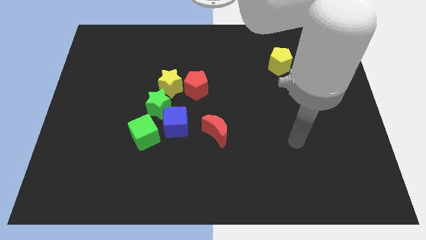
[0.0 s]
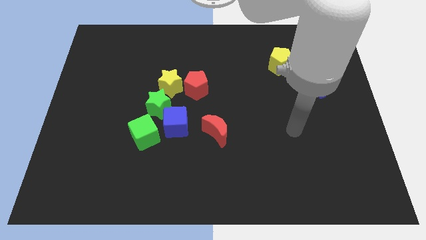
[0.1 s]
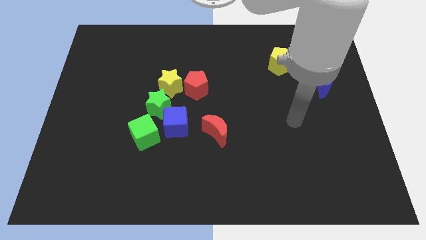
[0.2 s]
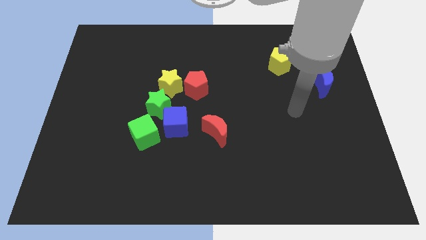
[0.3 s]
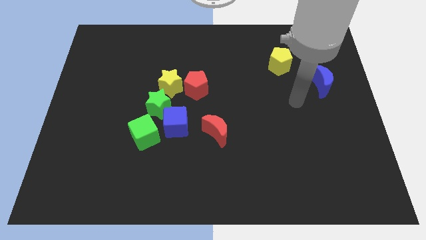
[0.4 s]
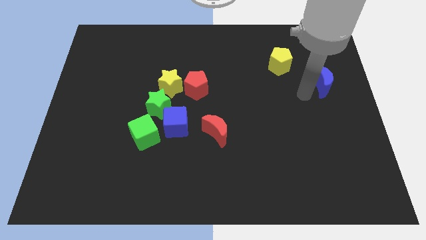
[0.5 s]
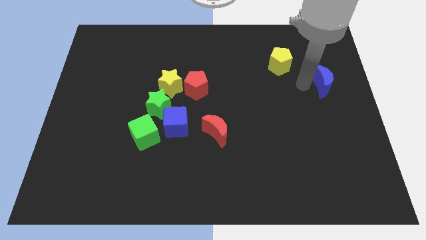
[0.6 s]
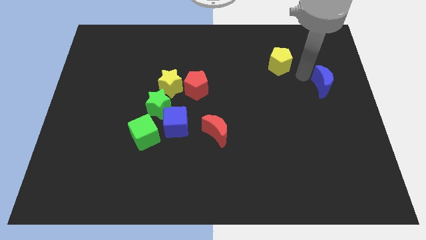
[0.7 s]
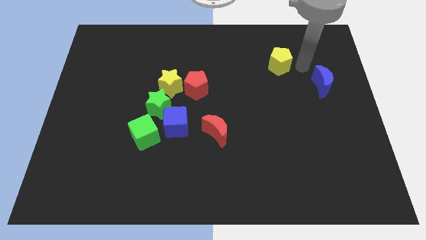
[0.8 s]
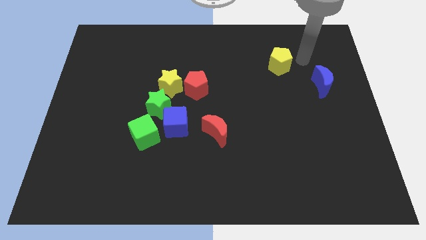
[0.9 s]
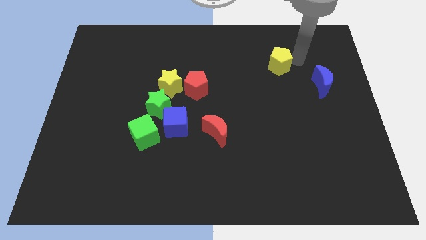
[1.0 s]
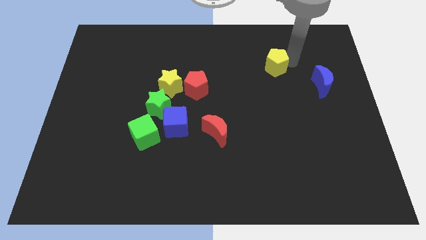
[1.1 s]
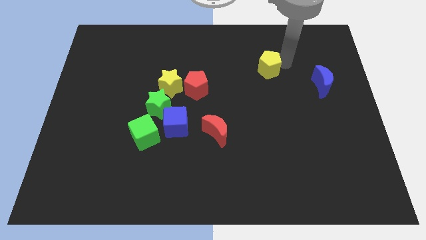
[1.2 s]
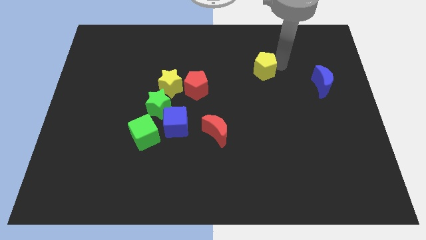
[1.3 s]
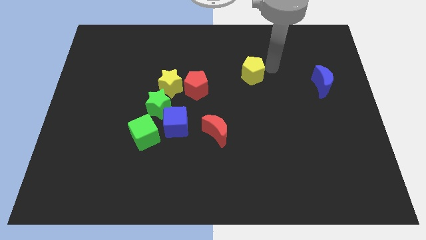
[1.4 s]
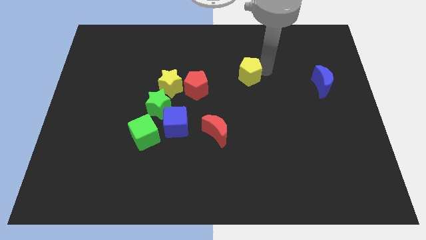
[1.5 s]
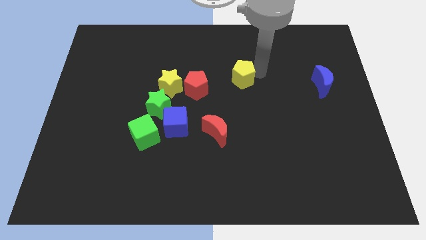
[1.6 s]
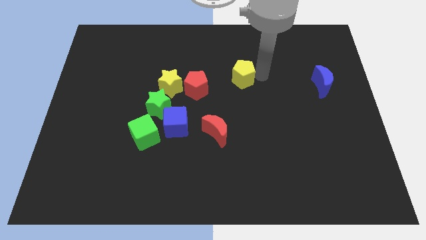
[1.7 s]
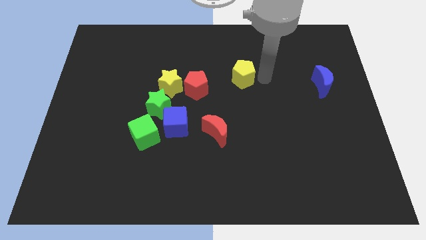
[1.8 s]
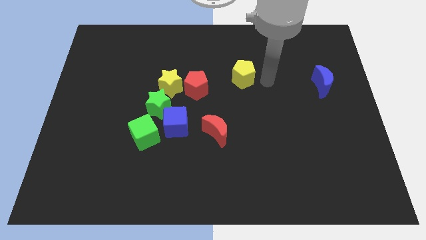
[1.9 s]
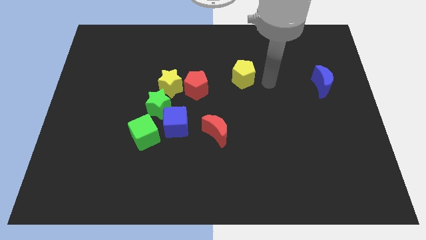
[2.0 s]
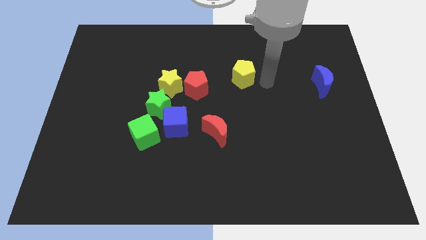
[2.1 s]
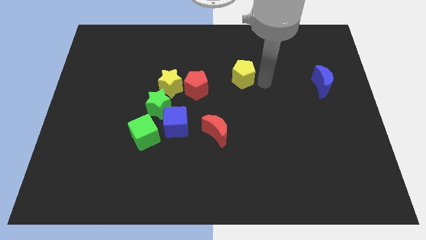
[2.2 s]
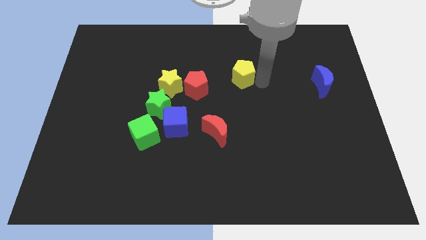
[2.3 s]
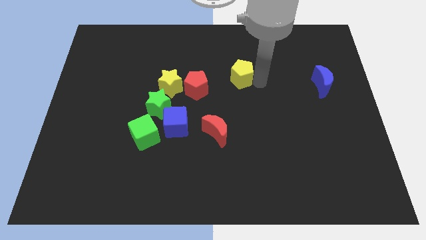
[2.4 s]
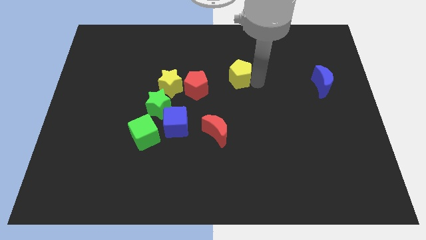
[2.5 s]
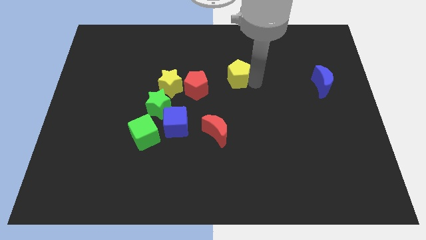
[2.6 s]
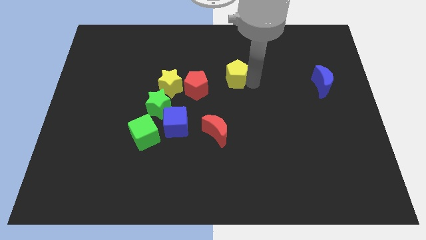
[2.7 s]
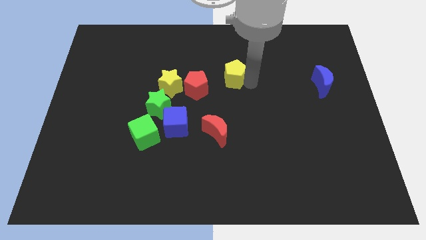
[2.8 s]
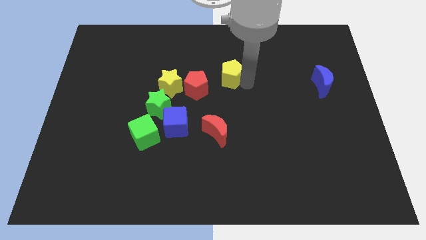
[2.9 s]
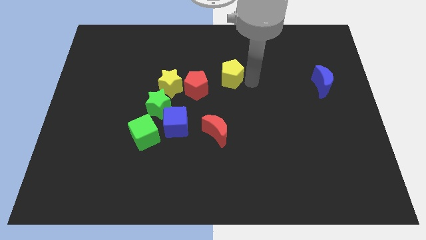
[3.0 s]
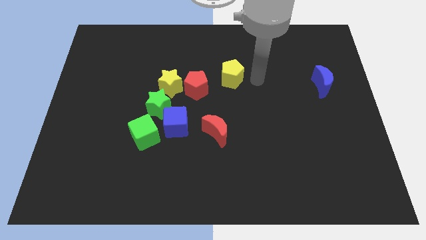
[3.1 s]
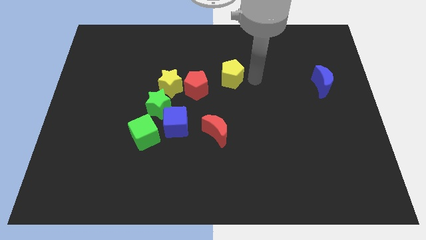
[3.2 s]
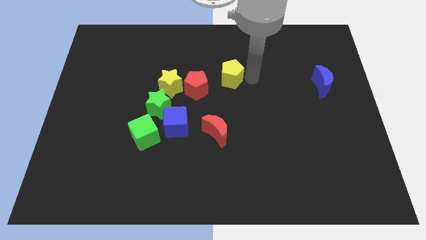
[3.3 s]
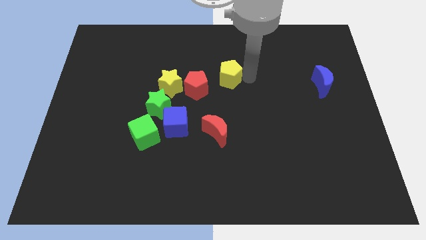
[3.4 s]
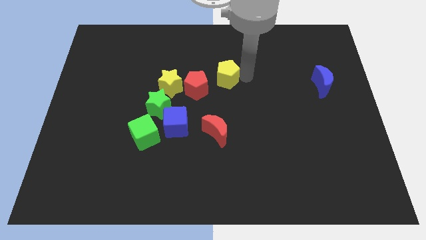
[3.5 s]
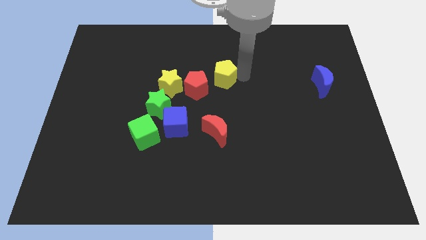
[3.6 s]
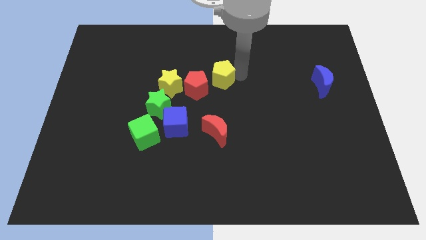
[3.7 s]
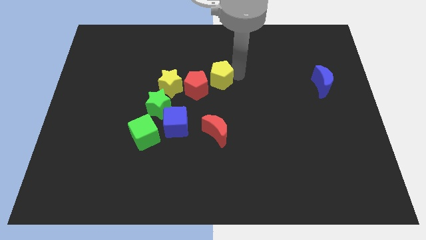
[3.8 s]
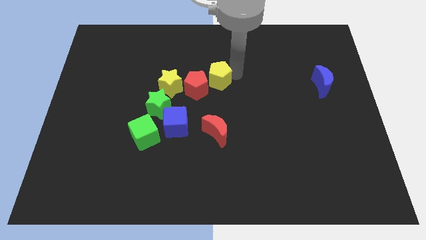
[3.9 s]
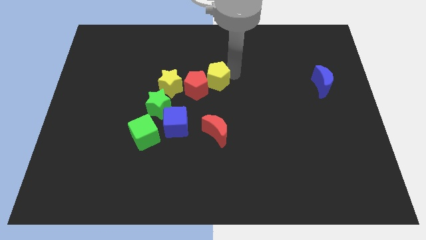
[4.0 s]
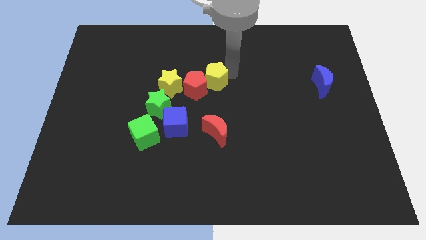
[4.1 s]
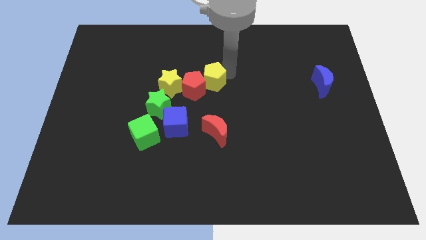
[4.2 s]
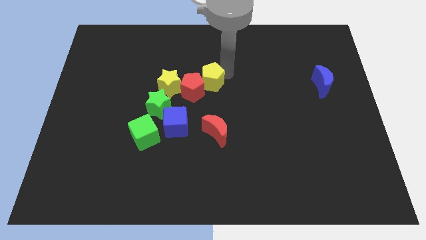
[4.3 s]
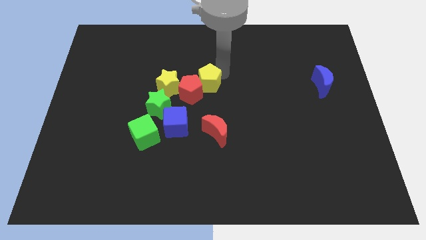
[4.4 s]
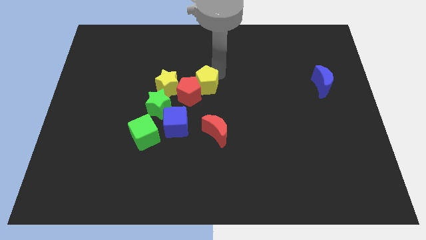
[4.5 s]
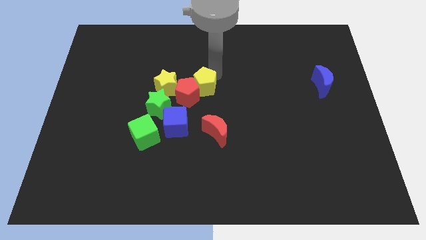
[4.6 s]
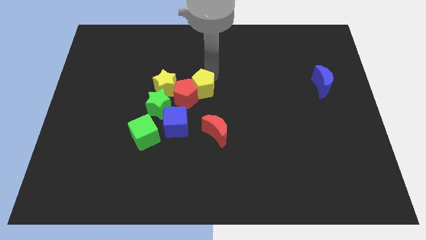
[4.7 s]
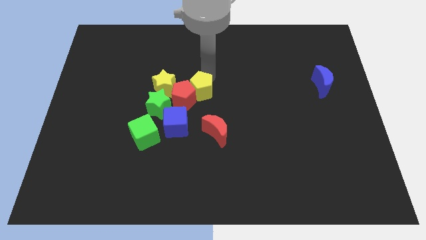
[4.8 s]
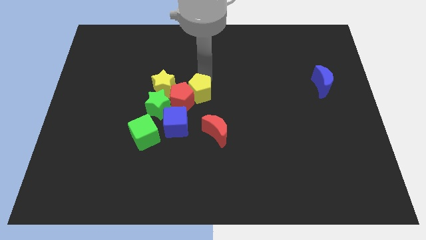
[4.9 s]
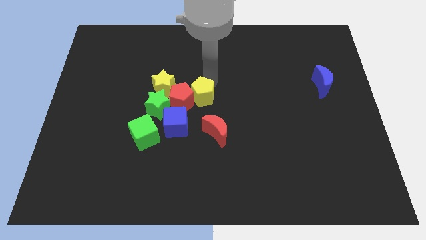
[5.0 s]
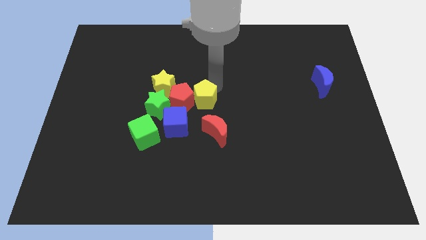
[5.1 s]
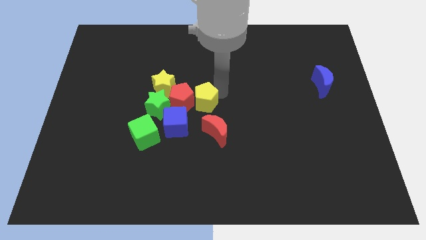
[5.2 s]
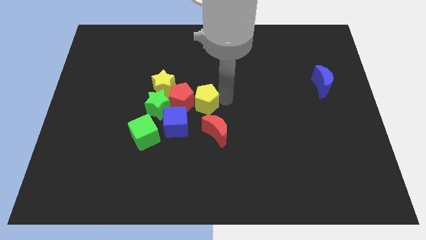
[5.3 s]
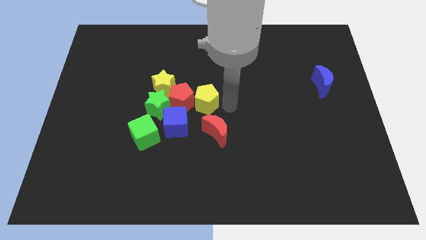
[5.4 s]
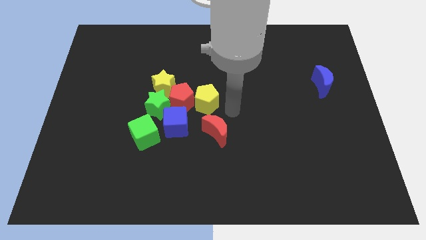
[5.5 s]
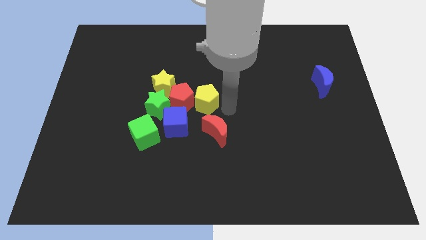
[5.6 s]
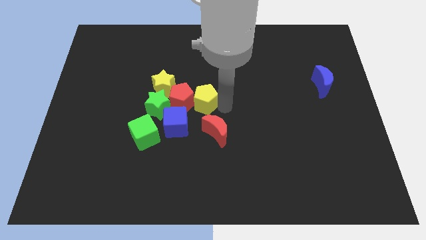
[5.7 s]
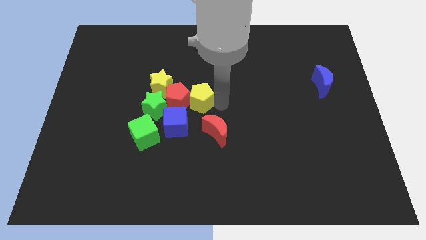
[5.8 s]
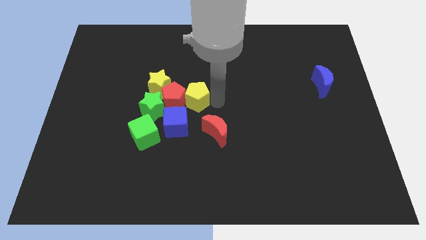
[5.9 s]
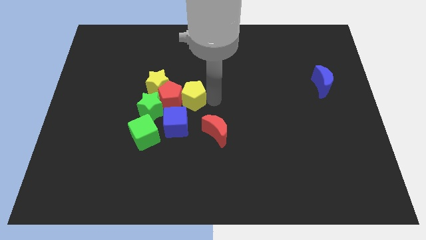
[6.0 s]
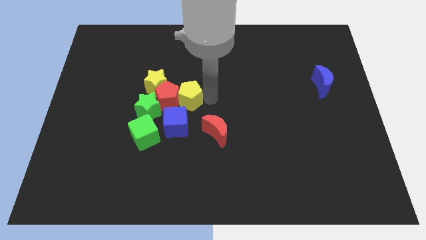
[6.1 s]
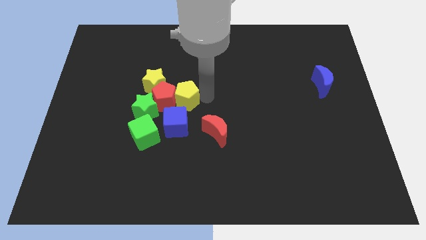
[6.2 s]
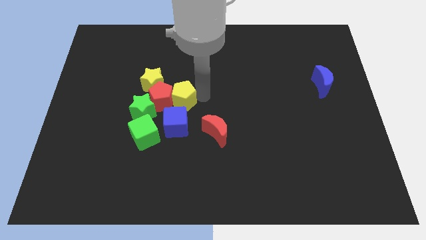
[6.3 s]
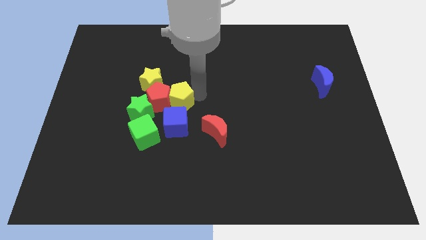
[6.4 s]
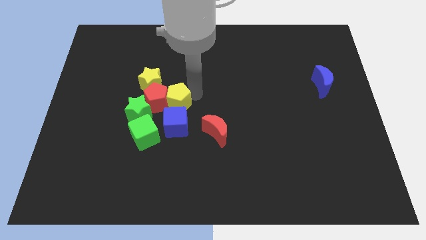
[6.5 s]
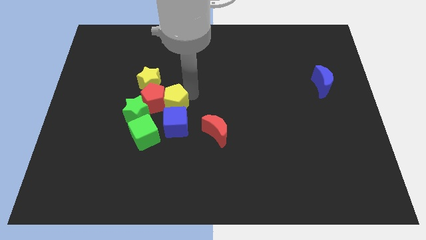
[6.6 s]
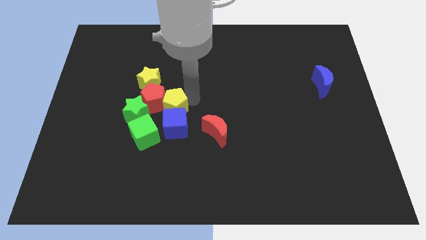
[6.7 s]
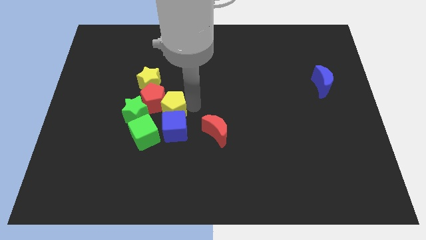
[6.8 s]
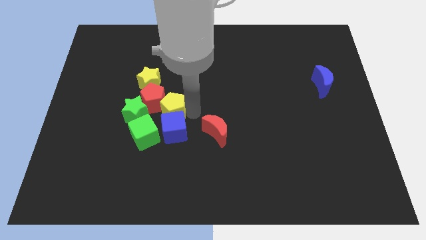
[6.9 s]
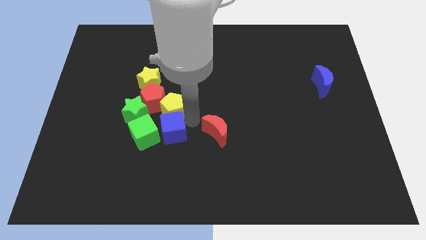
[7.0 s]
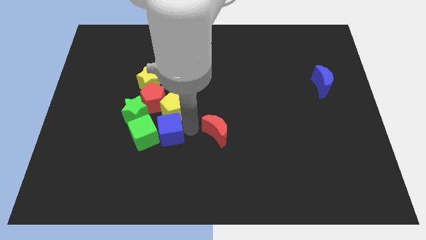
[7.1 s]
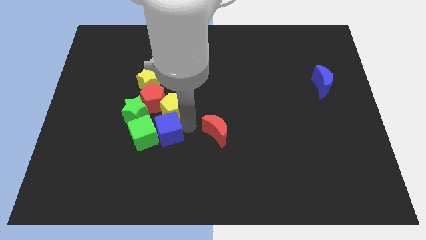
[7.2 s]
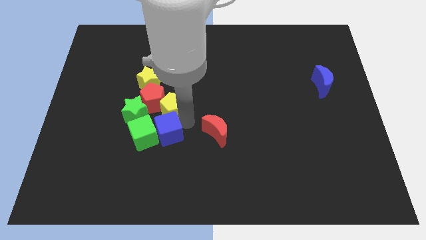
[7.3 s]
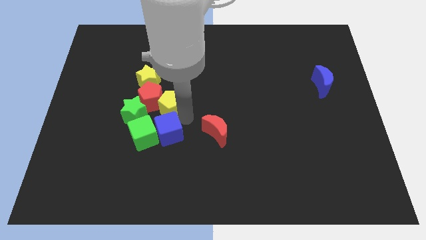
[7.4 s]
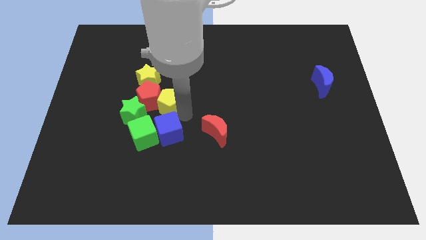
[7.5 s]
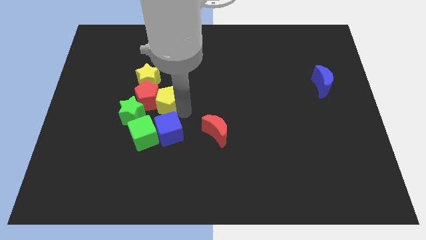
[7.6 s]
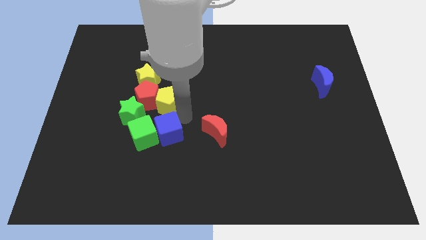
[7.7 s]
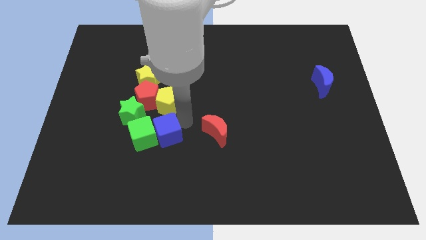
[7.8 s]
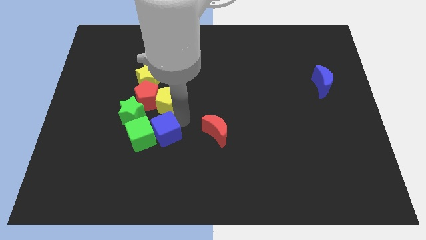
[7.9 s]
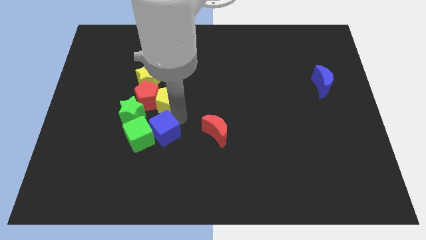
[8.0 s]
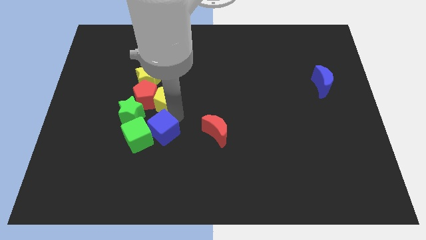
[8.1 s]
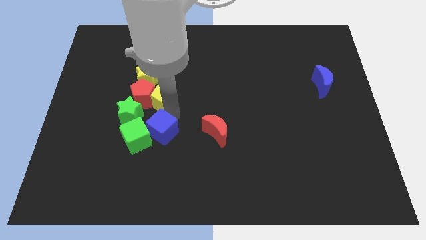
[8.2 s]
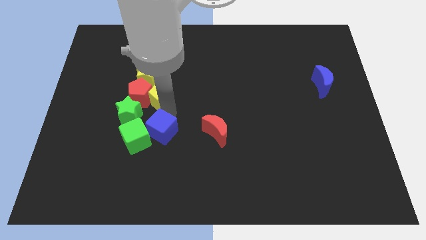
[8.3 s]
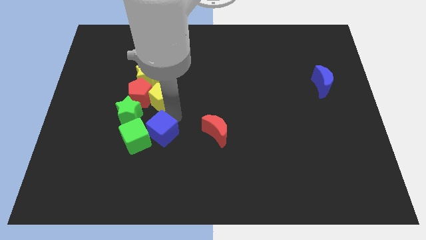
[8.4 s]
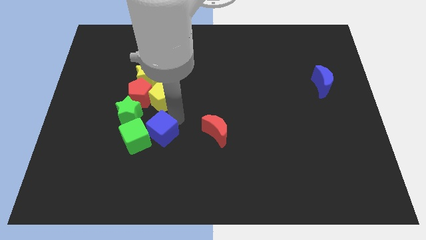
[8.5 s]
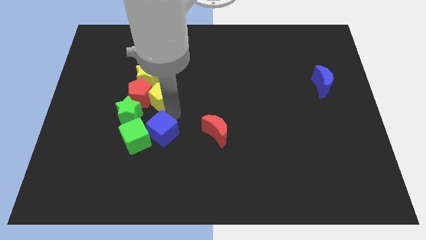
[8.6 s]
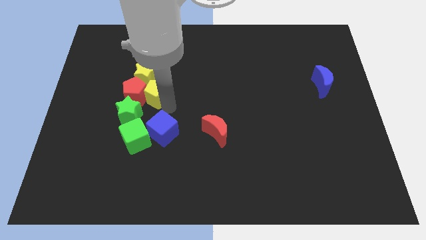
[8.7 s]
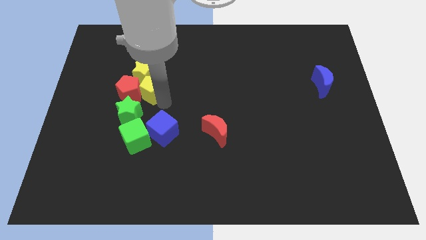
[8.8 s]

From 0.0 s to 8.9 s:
push the yellow pentagon next to the yellow star
